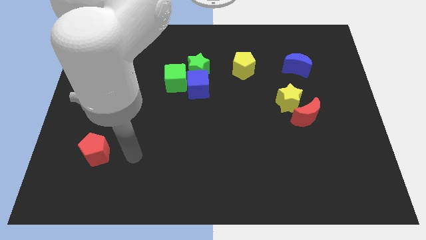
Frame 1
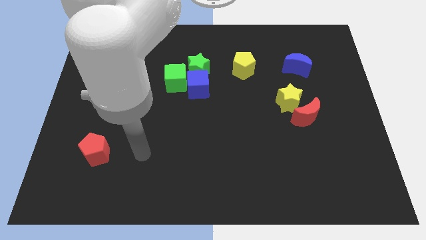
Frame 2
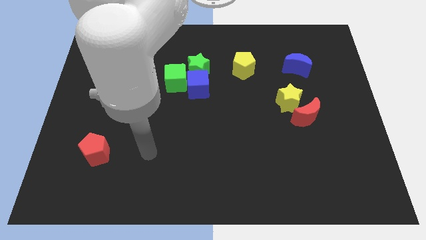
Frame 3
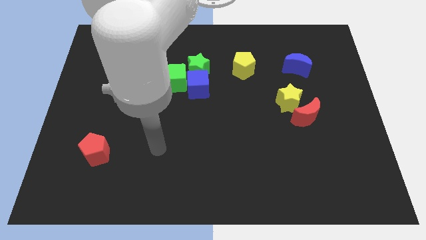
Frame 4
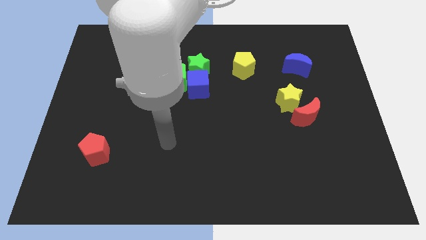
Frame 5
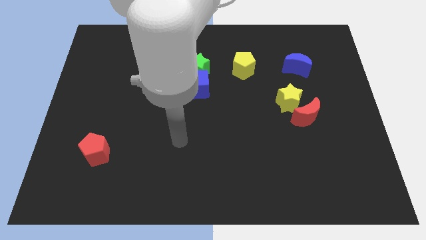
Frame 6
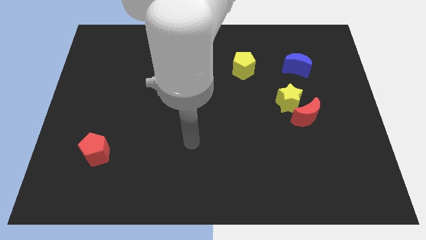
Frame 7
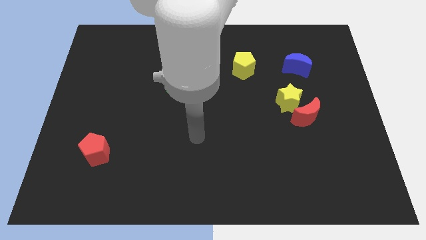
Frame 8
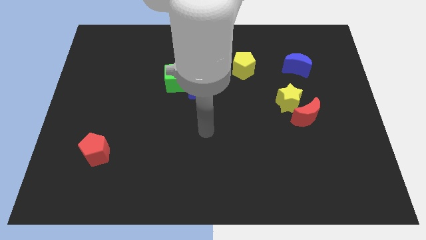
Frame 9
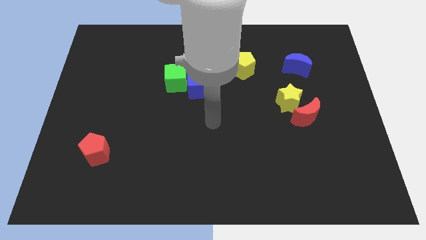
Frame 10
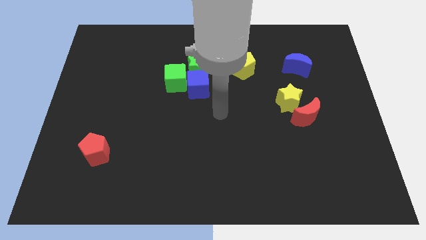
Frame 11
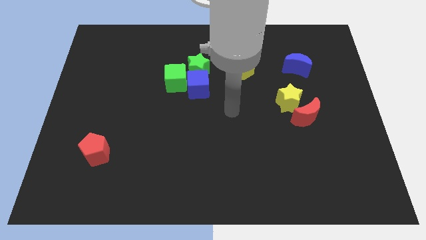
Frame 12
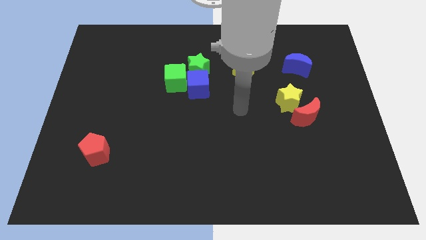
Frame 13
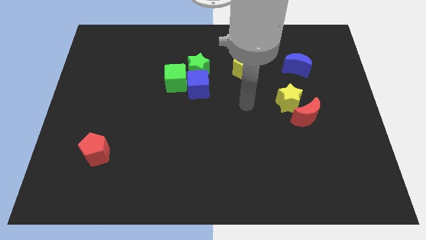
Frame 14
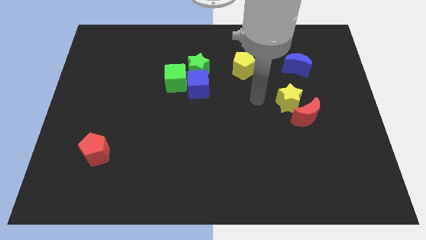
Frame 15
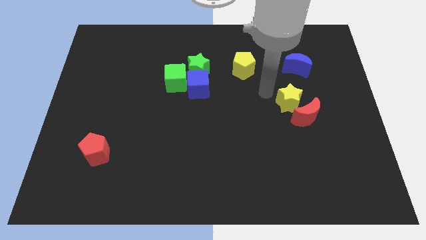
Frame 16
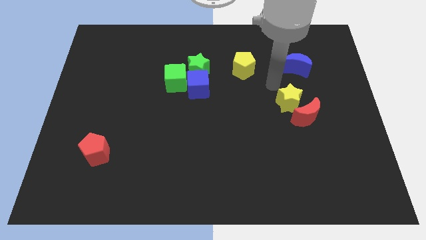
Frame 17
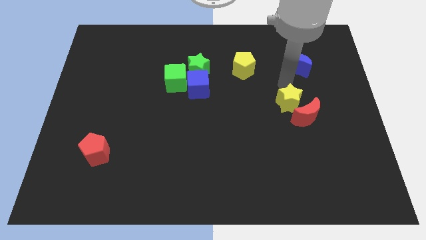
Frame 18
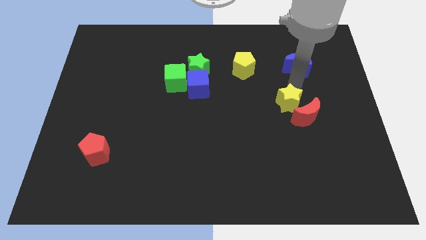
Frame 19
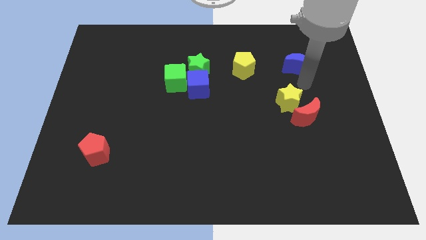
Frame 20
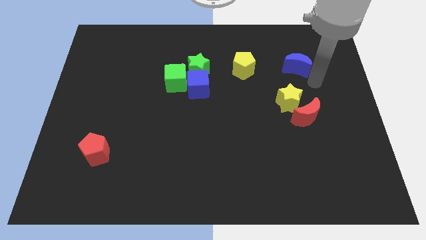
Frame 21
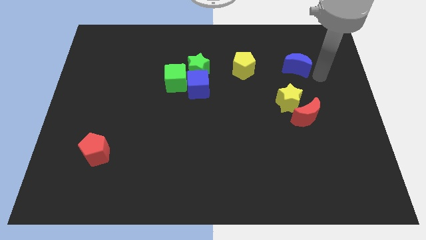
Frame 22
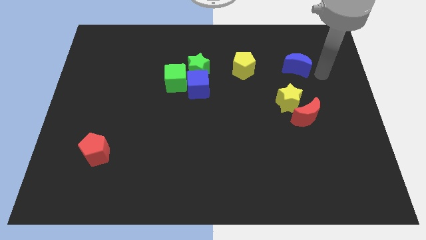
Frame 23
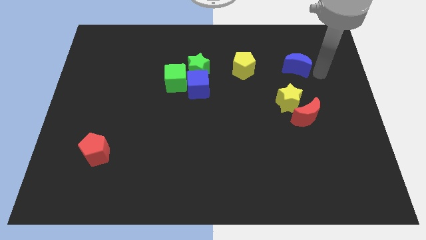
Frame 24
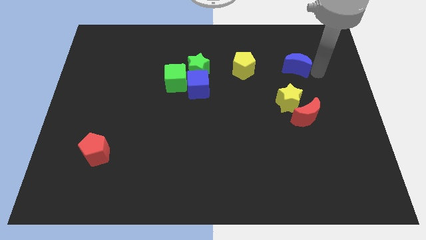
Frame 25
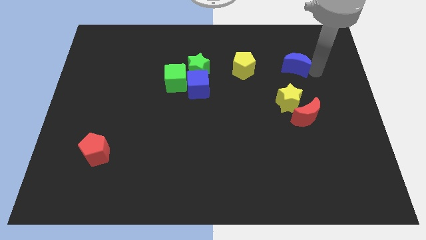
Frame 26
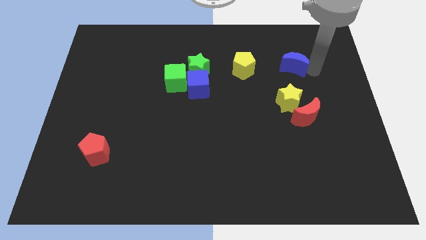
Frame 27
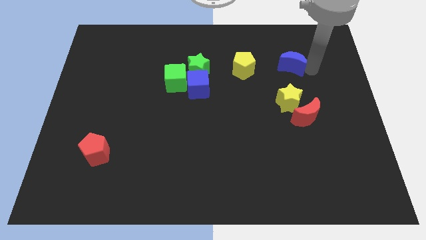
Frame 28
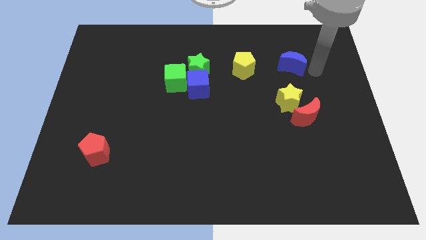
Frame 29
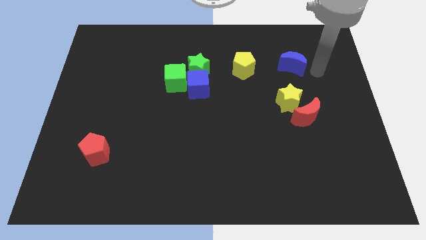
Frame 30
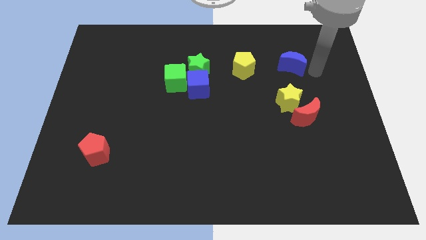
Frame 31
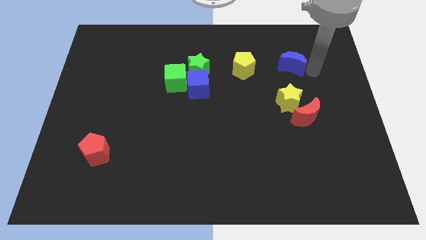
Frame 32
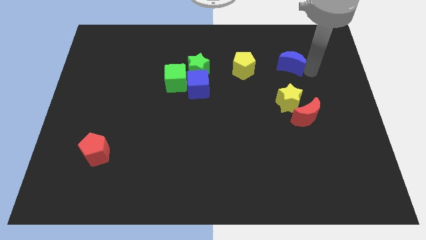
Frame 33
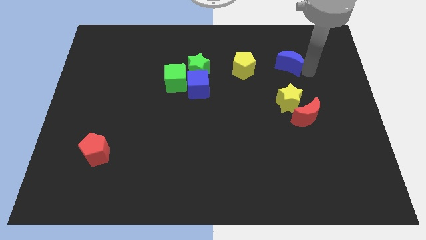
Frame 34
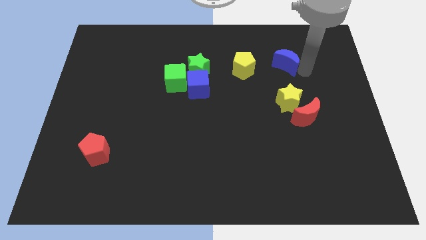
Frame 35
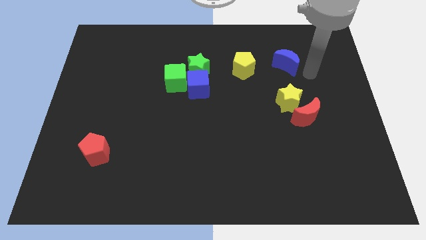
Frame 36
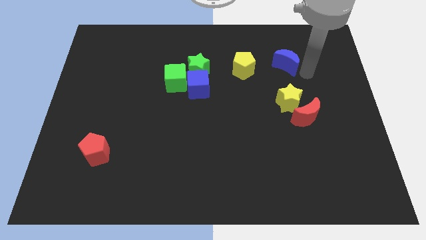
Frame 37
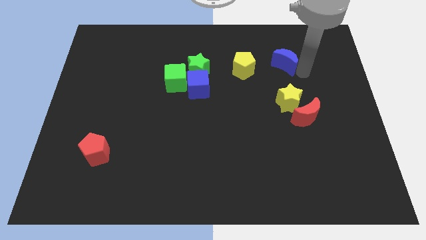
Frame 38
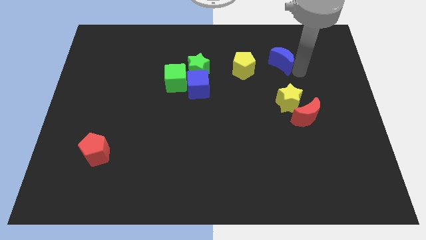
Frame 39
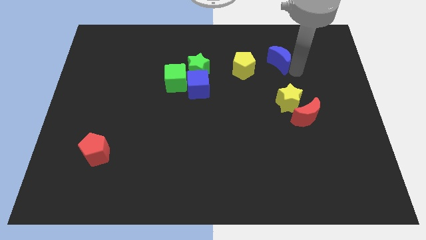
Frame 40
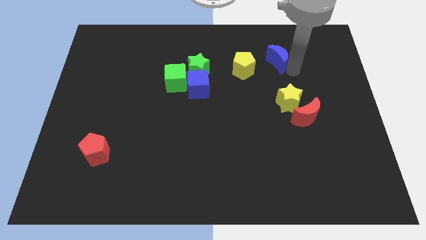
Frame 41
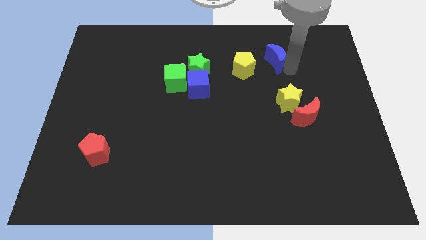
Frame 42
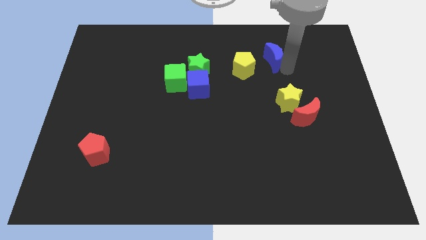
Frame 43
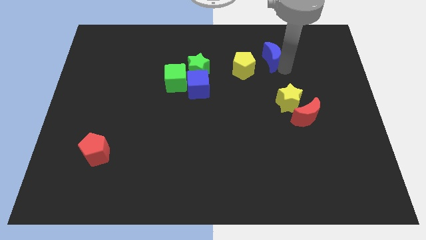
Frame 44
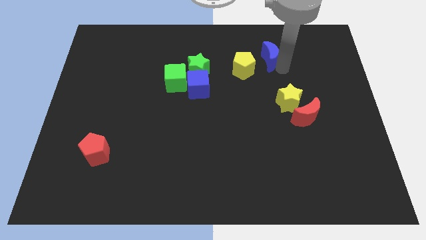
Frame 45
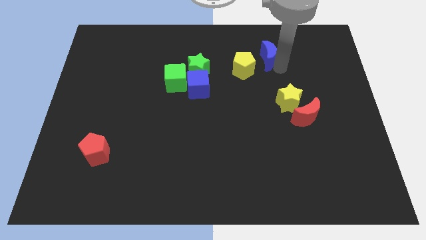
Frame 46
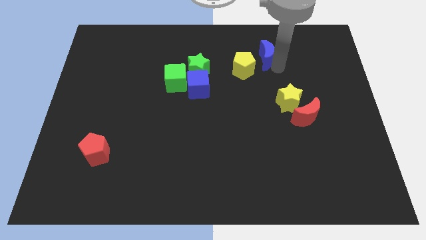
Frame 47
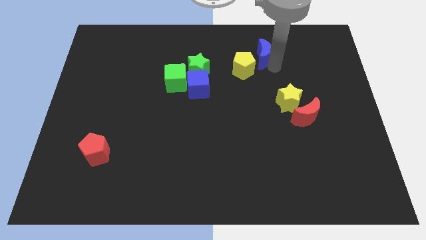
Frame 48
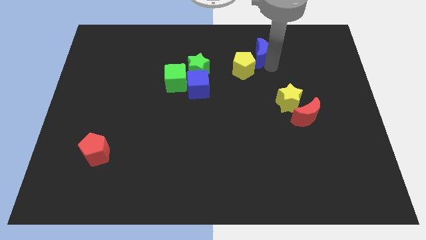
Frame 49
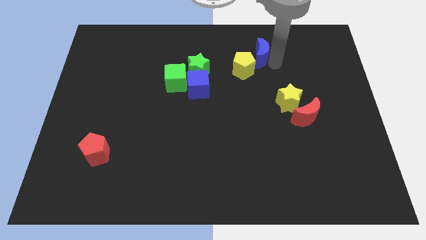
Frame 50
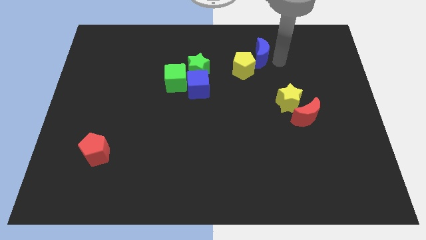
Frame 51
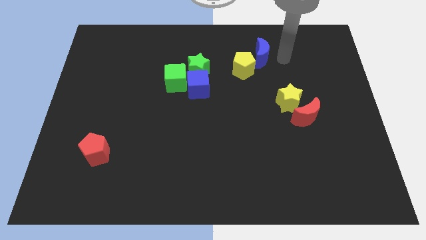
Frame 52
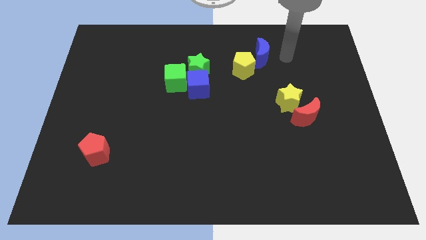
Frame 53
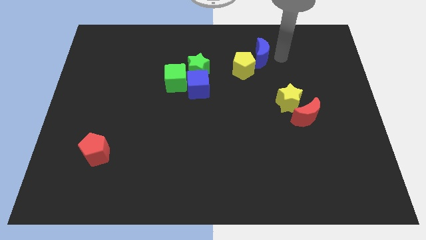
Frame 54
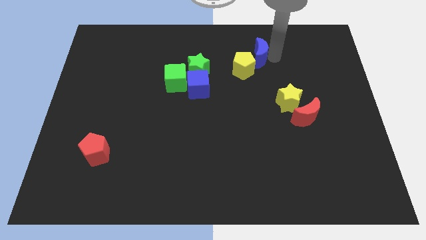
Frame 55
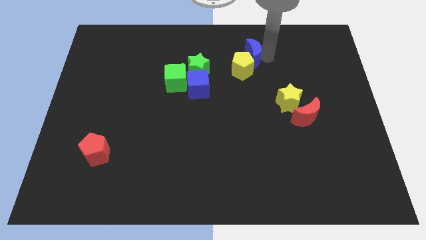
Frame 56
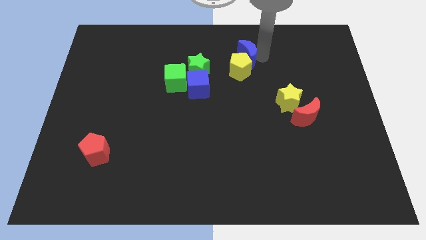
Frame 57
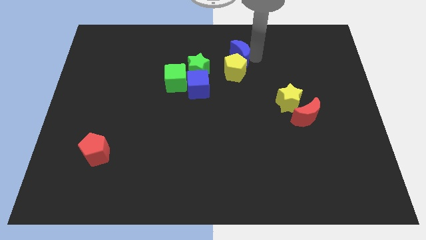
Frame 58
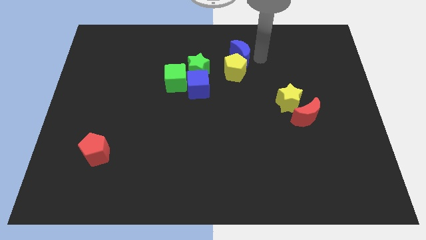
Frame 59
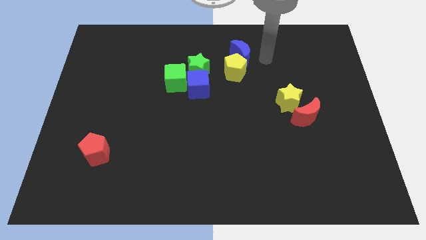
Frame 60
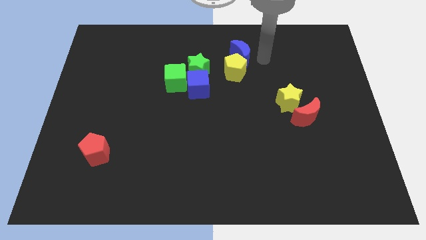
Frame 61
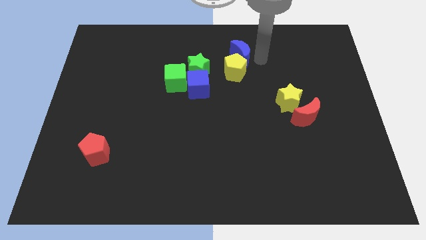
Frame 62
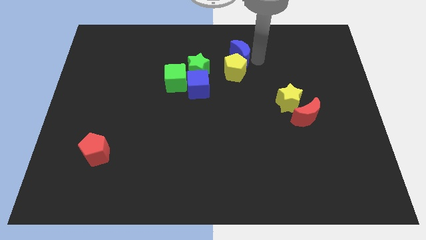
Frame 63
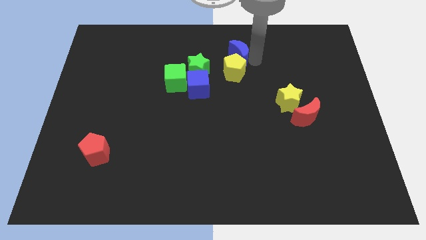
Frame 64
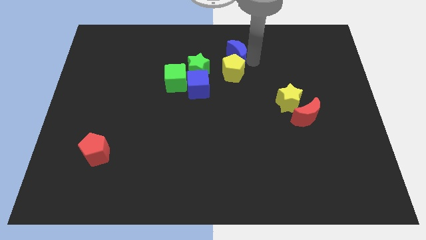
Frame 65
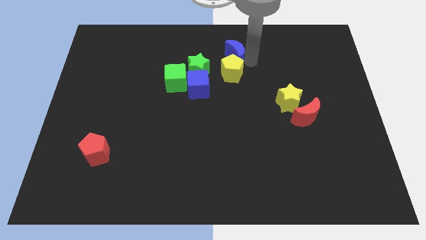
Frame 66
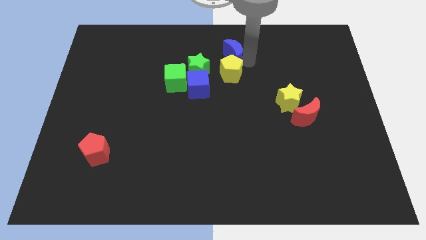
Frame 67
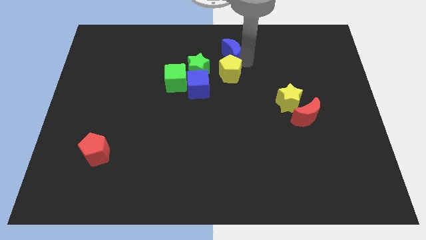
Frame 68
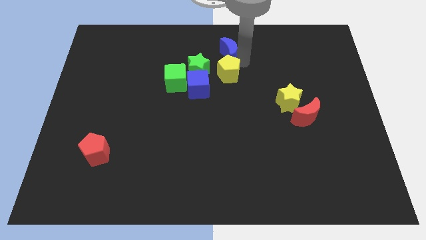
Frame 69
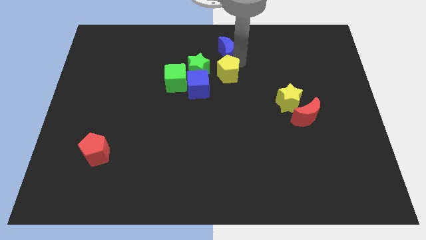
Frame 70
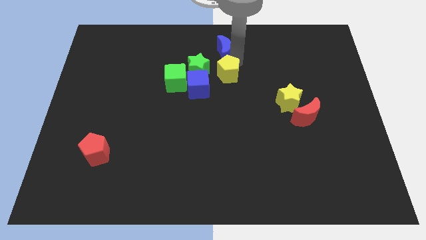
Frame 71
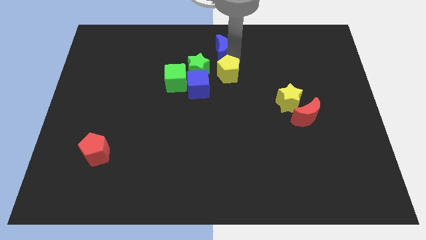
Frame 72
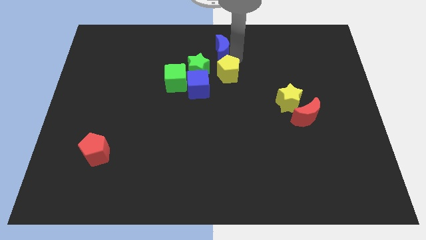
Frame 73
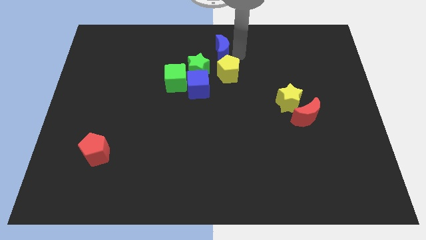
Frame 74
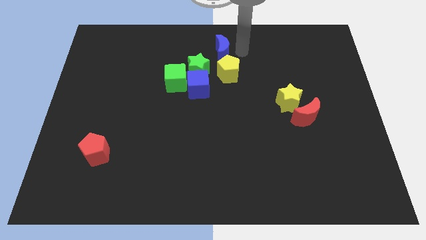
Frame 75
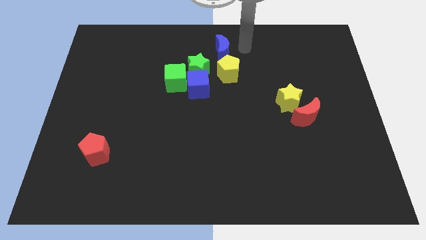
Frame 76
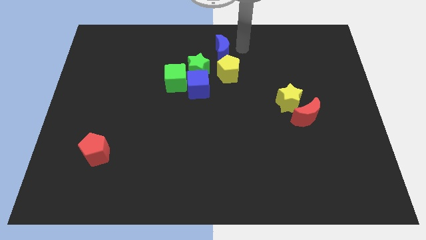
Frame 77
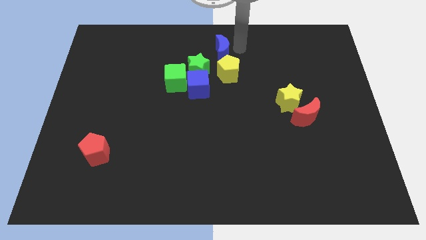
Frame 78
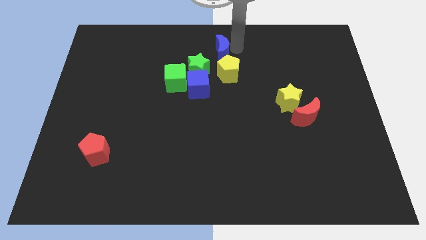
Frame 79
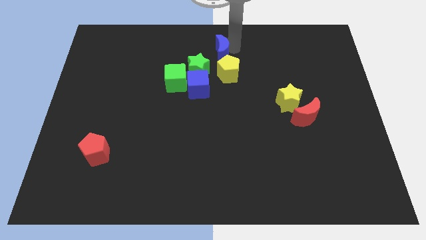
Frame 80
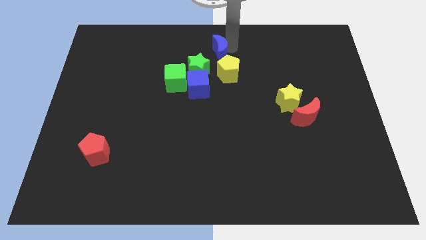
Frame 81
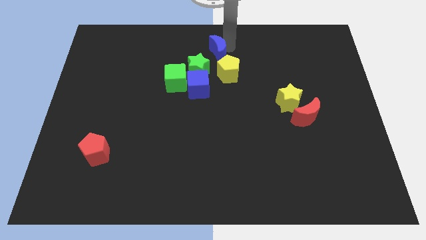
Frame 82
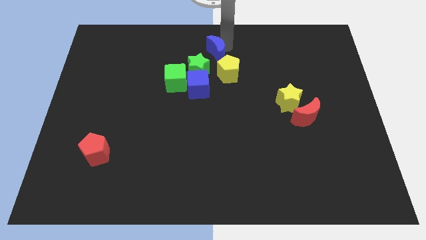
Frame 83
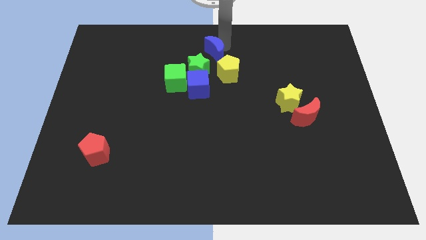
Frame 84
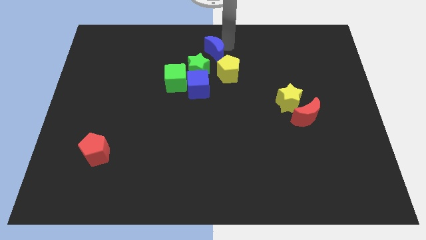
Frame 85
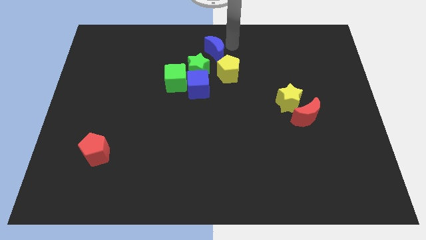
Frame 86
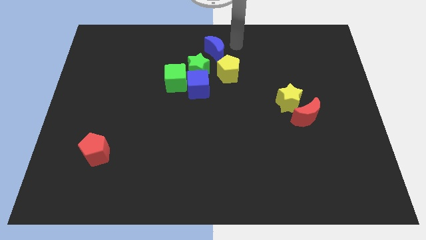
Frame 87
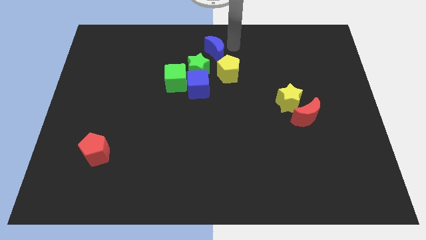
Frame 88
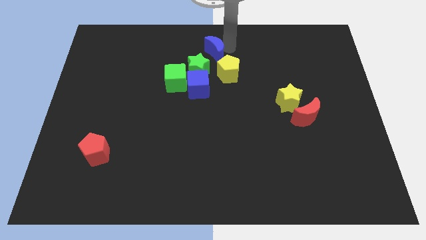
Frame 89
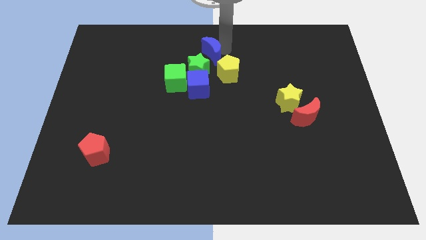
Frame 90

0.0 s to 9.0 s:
slide the blue moon left
